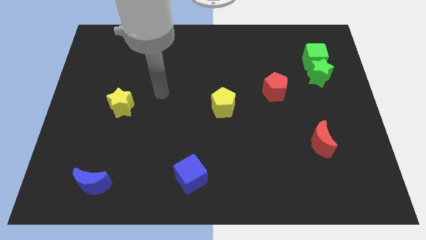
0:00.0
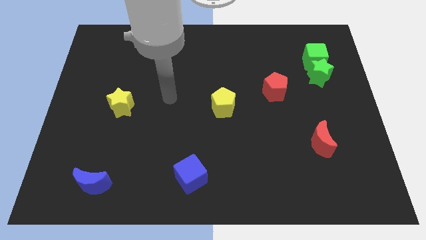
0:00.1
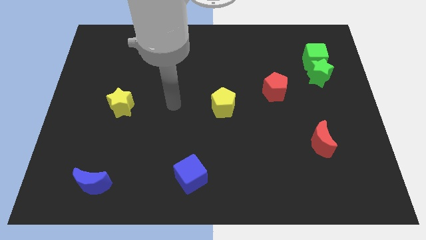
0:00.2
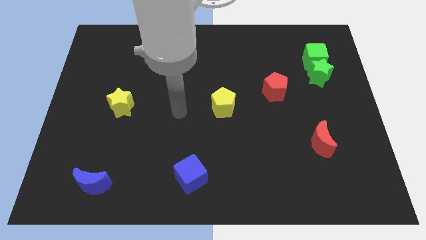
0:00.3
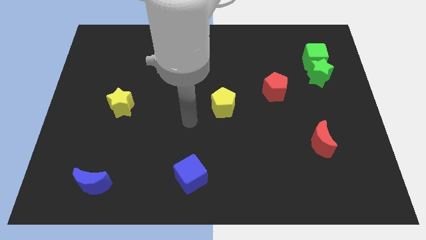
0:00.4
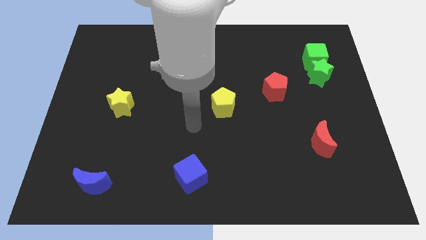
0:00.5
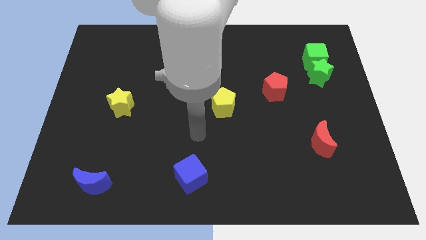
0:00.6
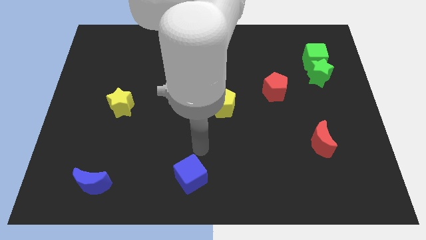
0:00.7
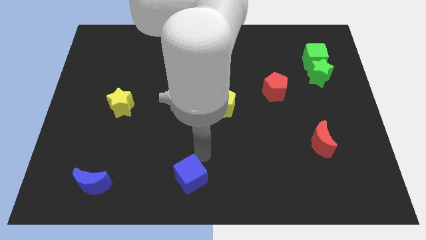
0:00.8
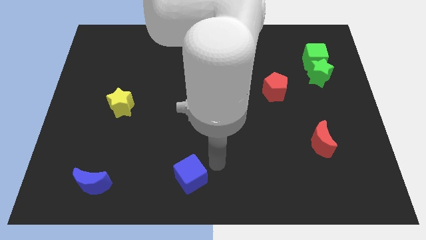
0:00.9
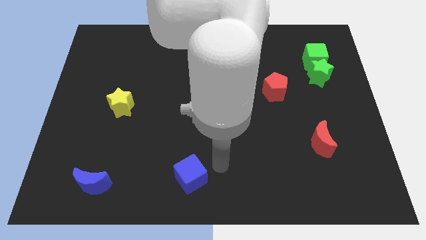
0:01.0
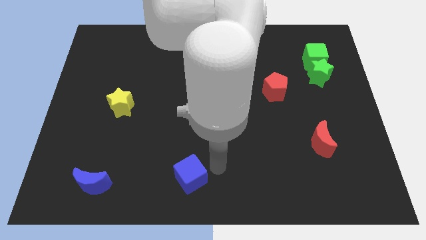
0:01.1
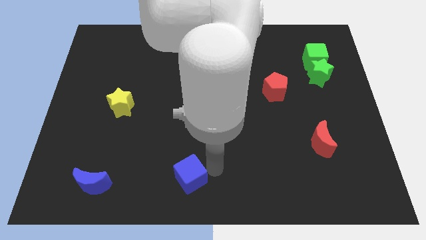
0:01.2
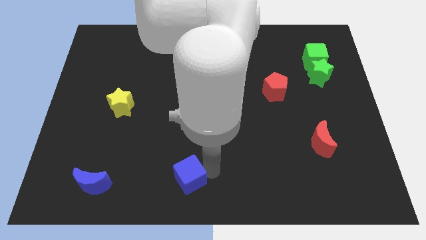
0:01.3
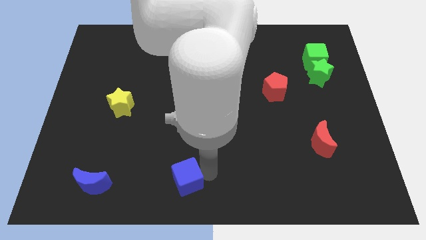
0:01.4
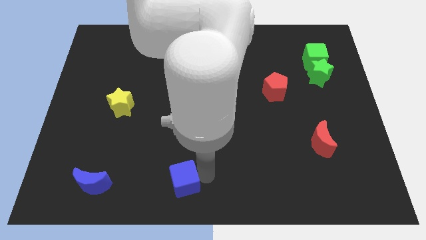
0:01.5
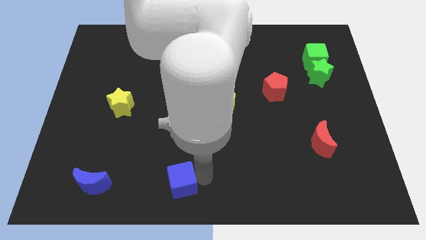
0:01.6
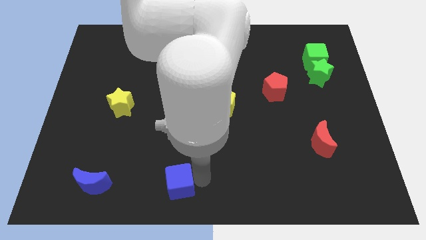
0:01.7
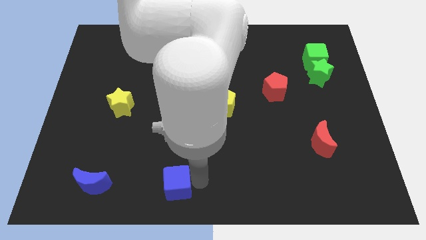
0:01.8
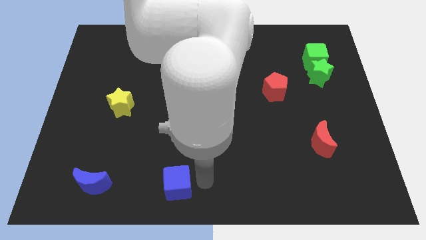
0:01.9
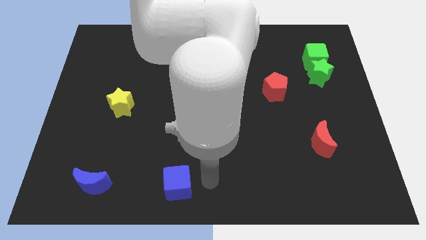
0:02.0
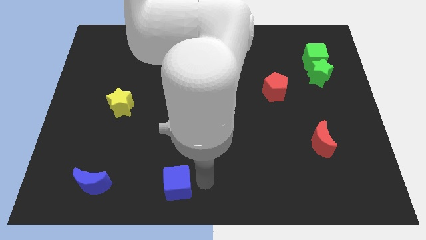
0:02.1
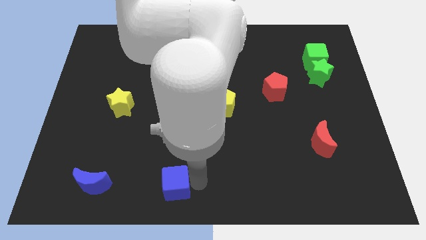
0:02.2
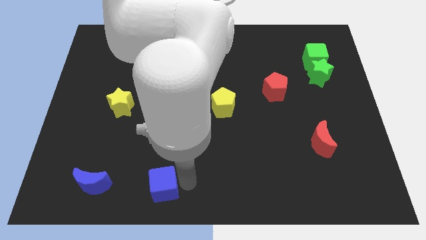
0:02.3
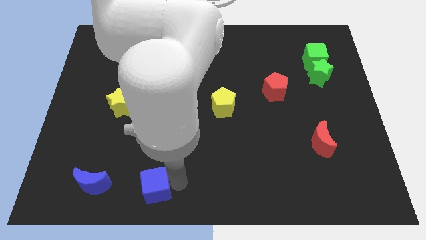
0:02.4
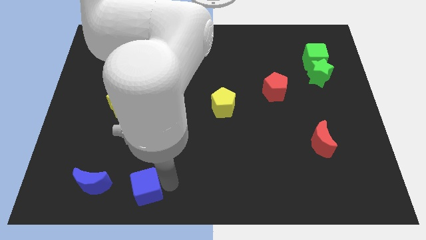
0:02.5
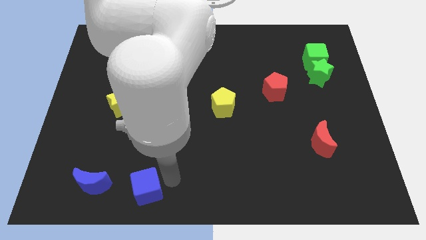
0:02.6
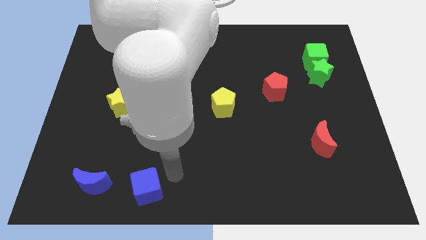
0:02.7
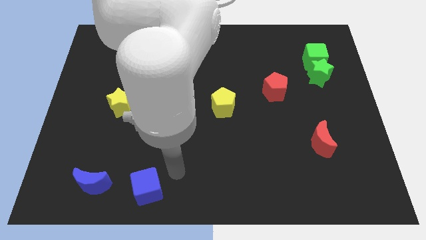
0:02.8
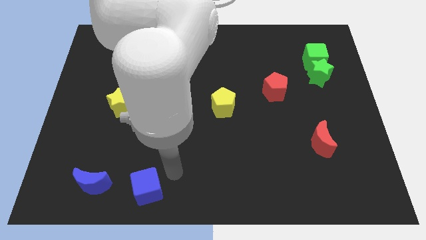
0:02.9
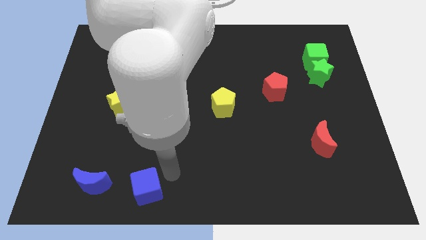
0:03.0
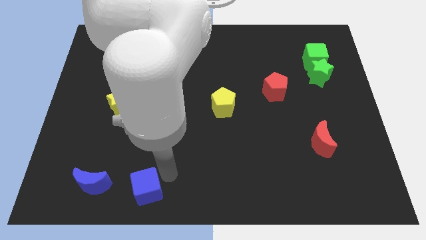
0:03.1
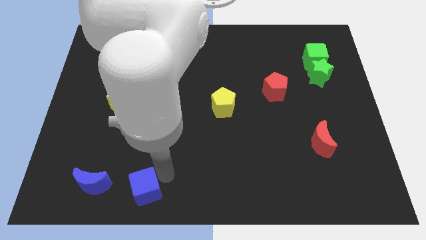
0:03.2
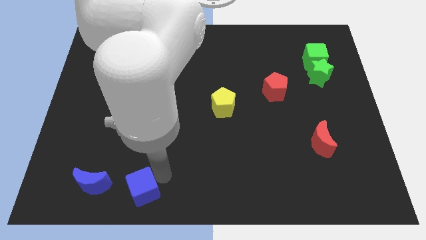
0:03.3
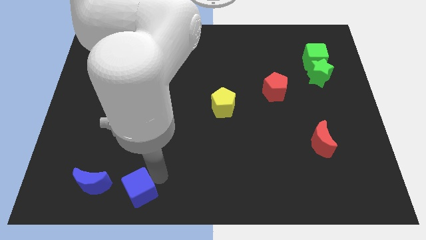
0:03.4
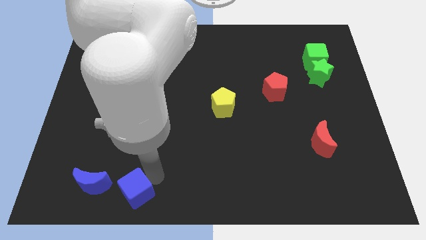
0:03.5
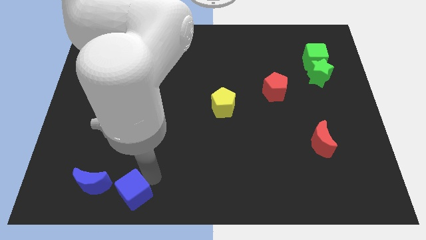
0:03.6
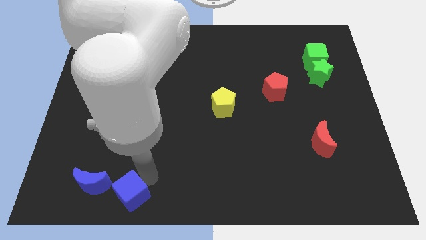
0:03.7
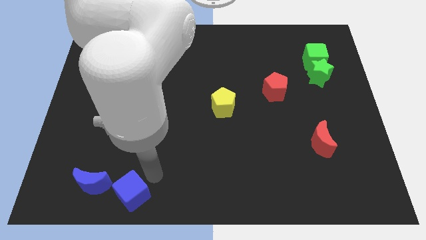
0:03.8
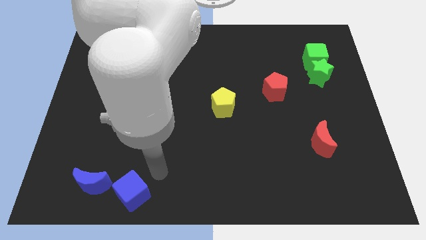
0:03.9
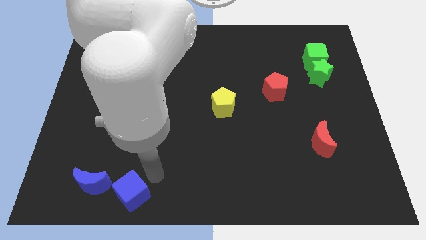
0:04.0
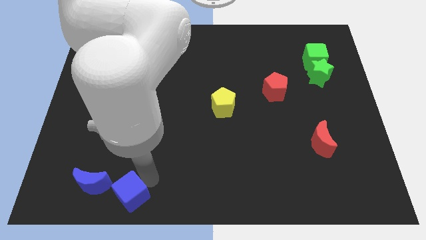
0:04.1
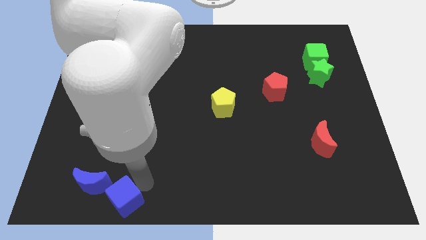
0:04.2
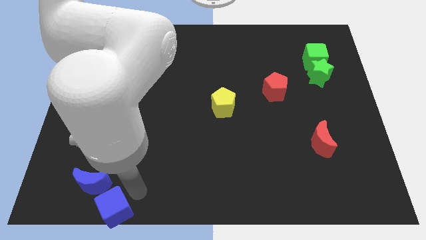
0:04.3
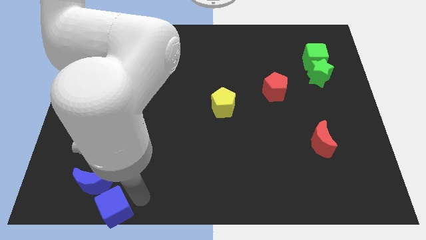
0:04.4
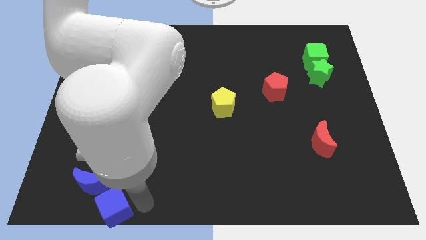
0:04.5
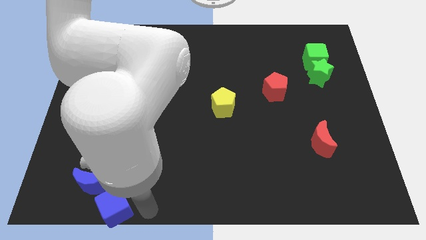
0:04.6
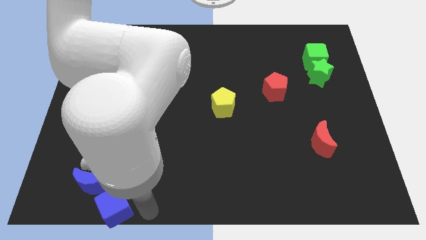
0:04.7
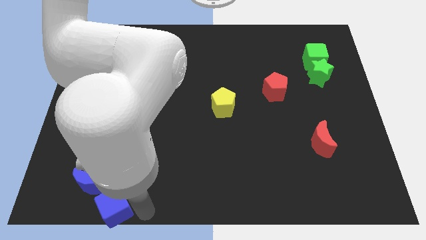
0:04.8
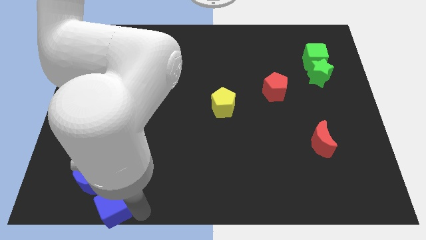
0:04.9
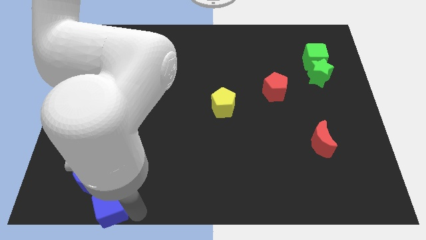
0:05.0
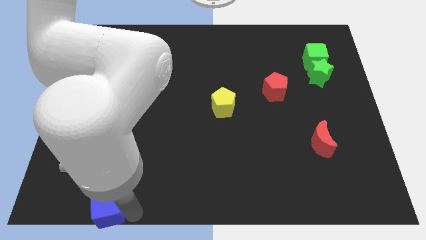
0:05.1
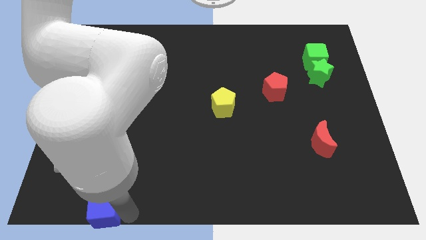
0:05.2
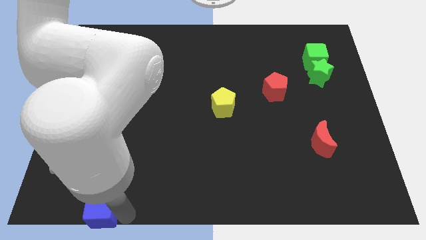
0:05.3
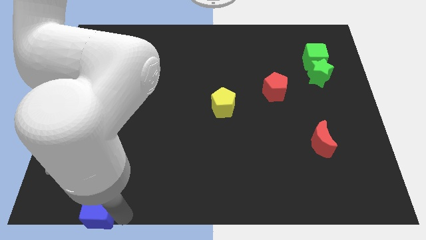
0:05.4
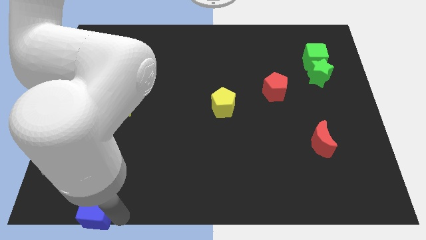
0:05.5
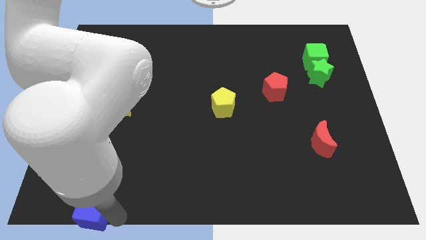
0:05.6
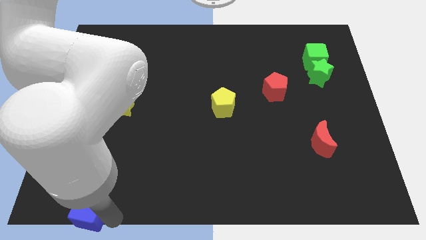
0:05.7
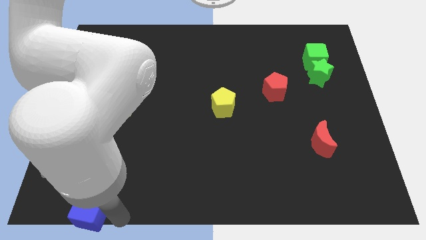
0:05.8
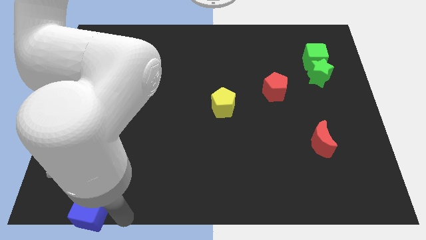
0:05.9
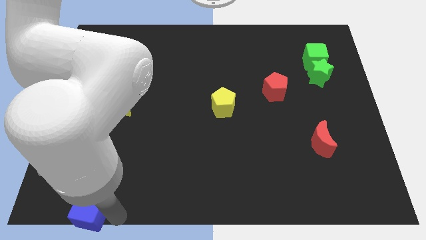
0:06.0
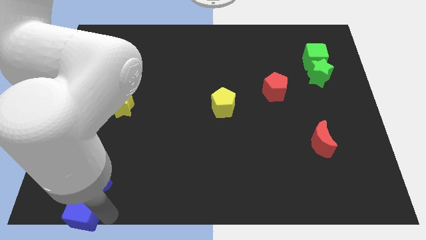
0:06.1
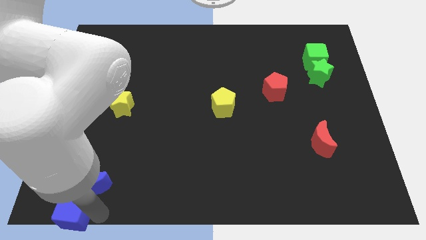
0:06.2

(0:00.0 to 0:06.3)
move the blue cube to the bottom left corner
